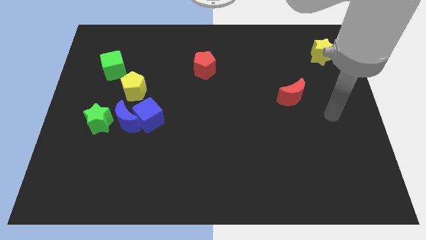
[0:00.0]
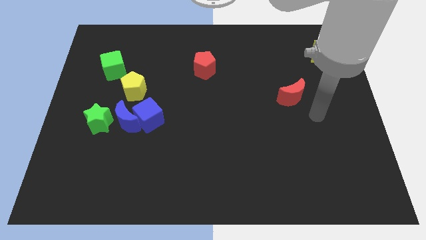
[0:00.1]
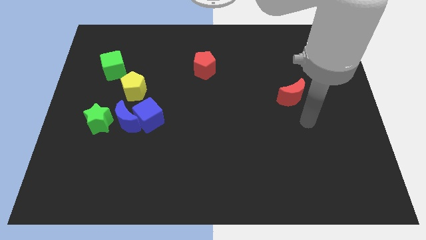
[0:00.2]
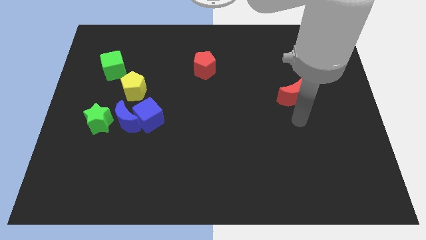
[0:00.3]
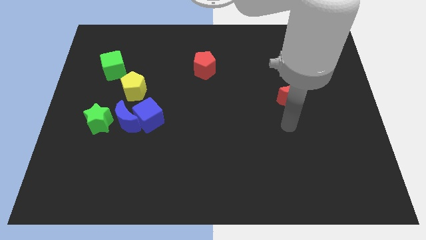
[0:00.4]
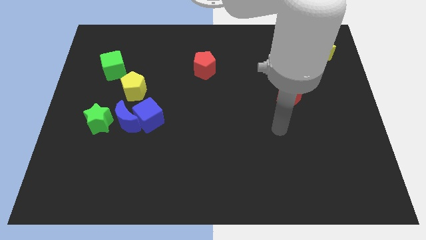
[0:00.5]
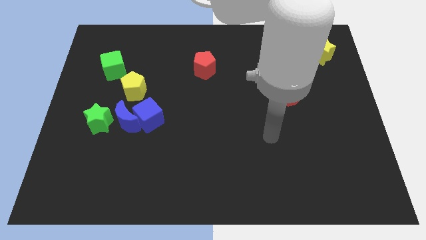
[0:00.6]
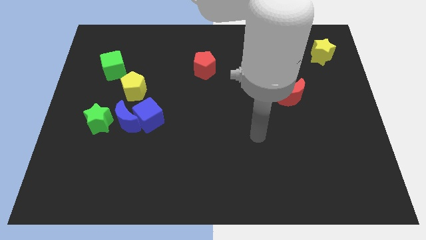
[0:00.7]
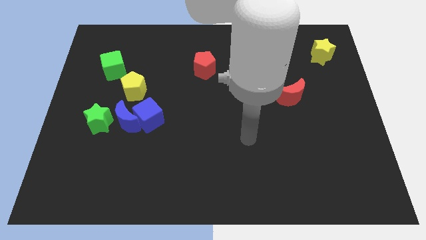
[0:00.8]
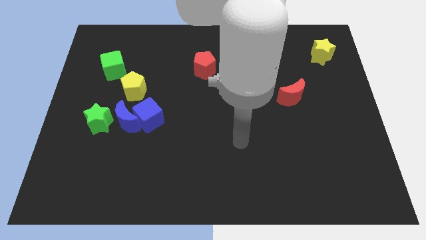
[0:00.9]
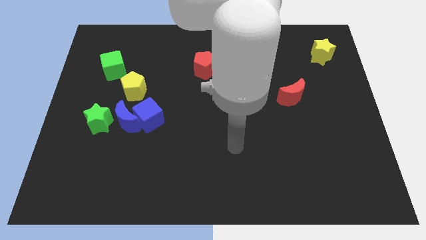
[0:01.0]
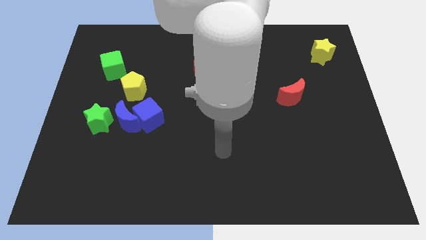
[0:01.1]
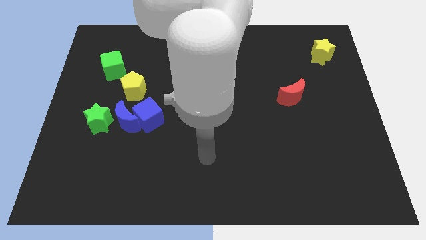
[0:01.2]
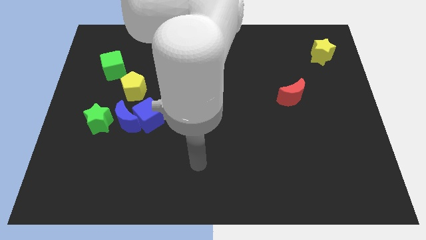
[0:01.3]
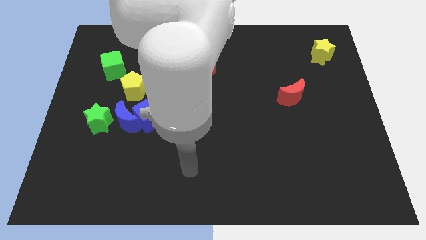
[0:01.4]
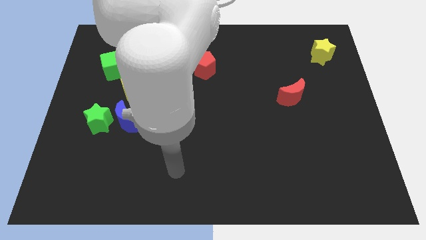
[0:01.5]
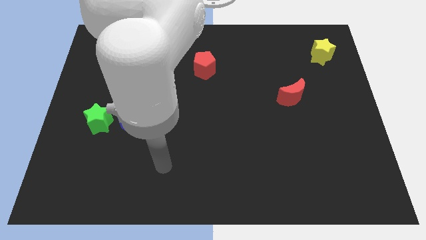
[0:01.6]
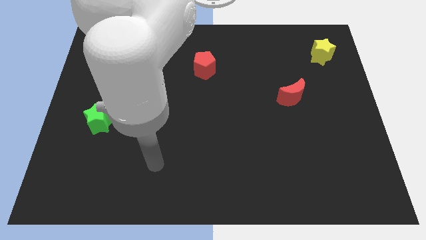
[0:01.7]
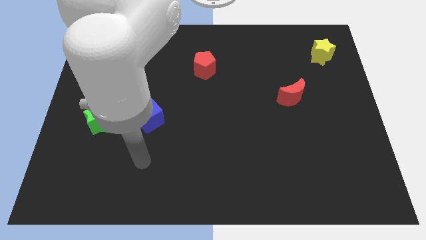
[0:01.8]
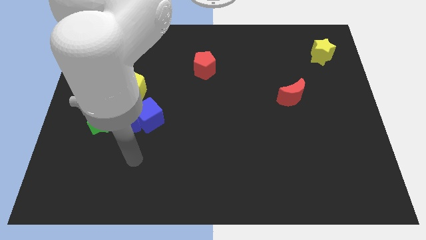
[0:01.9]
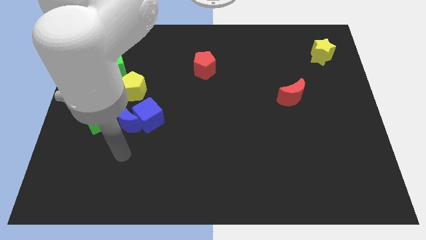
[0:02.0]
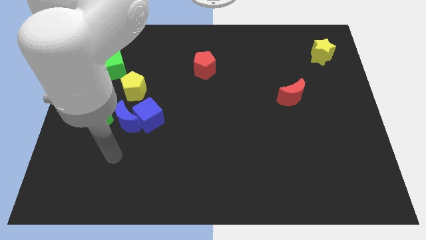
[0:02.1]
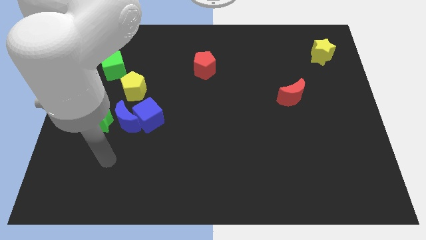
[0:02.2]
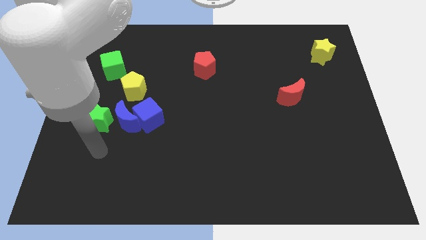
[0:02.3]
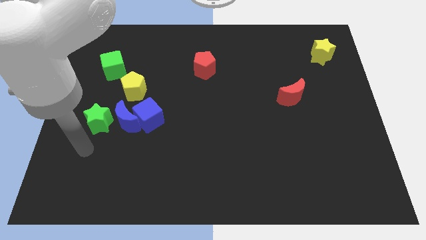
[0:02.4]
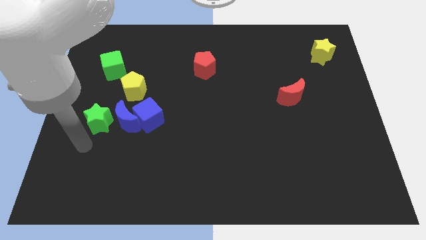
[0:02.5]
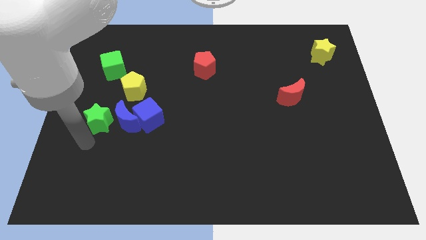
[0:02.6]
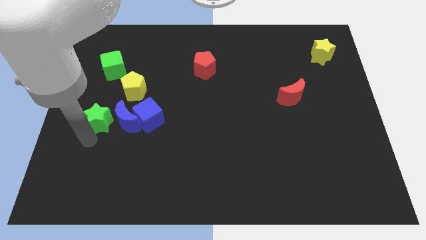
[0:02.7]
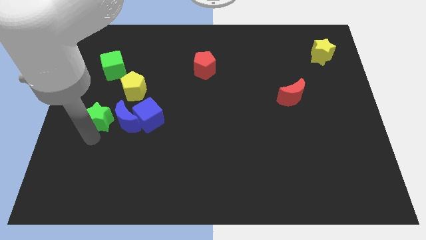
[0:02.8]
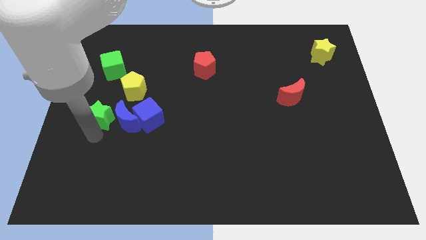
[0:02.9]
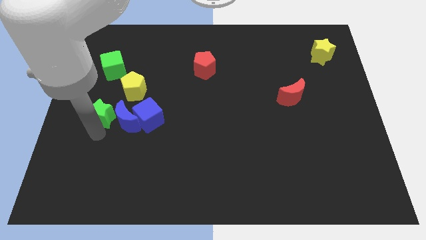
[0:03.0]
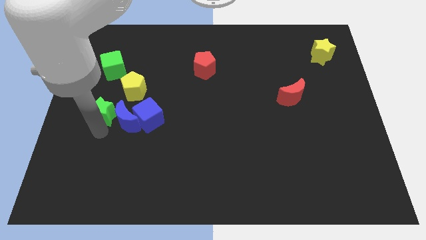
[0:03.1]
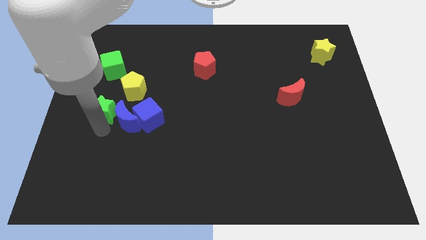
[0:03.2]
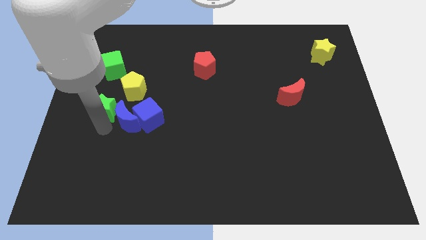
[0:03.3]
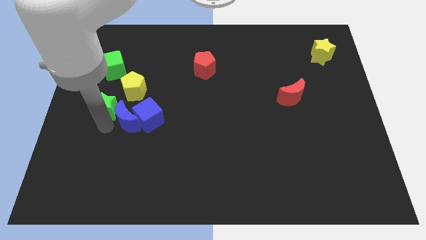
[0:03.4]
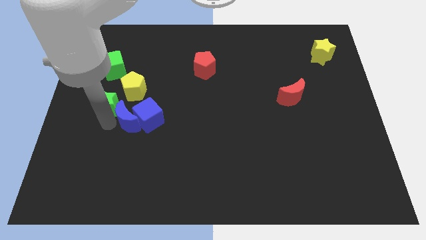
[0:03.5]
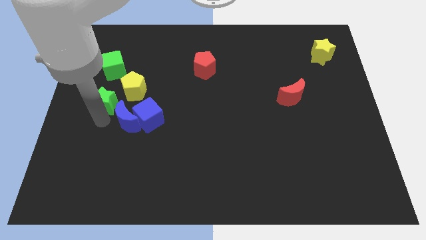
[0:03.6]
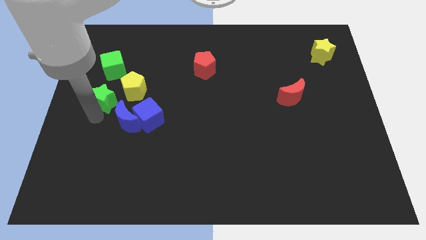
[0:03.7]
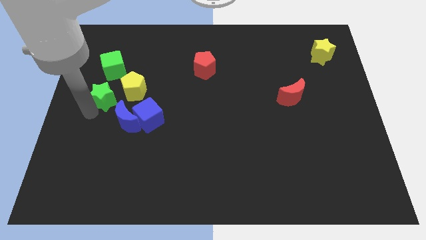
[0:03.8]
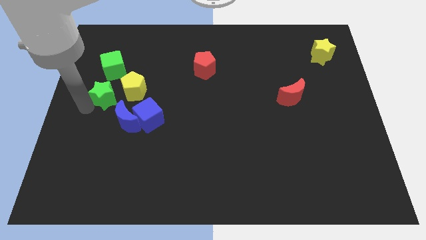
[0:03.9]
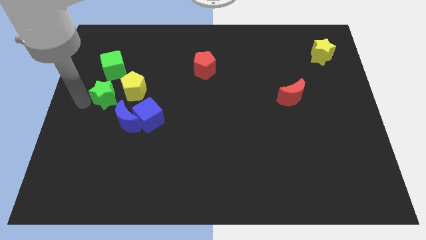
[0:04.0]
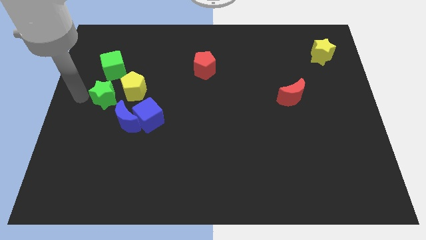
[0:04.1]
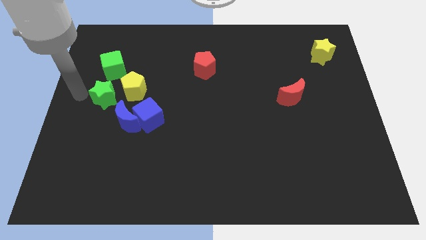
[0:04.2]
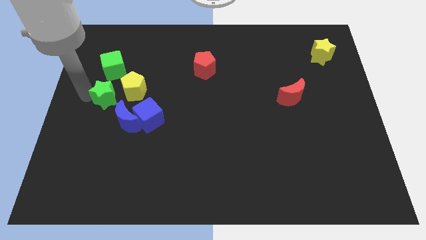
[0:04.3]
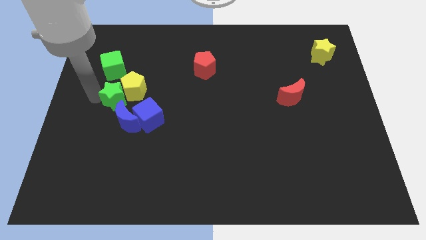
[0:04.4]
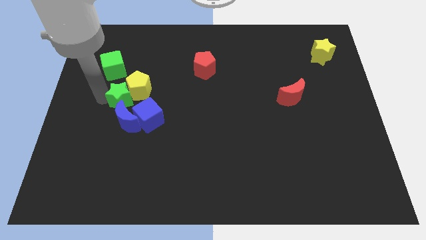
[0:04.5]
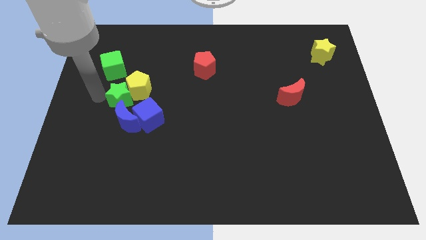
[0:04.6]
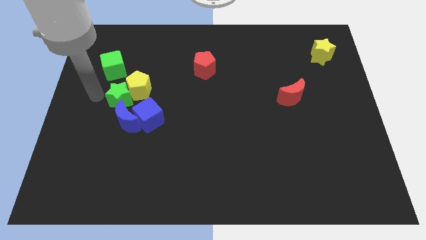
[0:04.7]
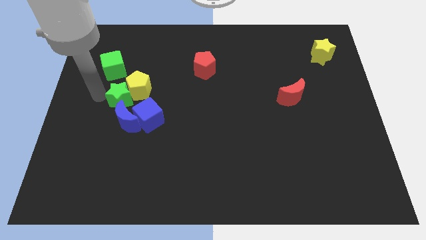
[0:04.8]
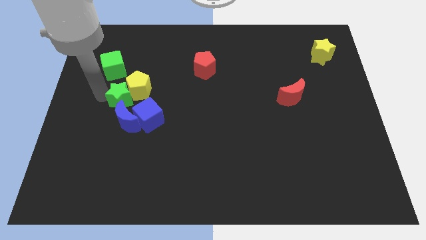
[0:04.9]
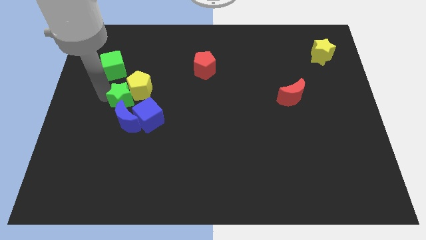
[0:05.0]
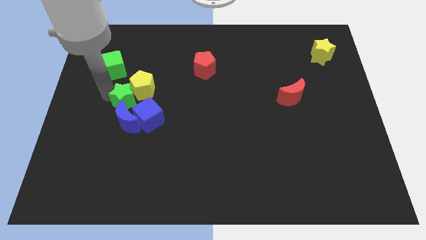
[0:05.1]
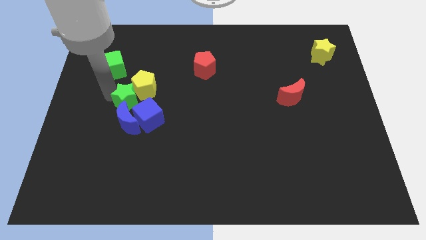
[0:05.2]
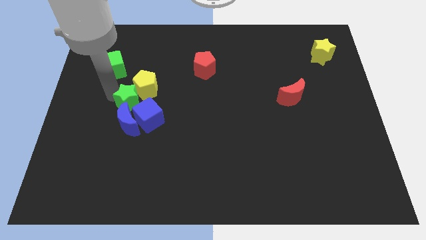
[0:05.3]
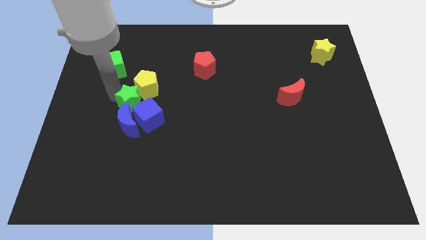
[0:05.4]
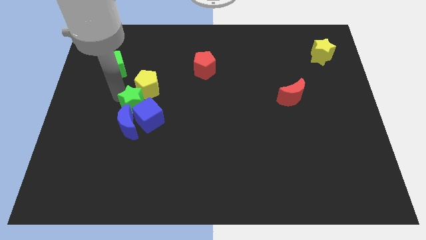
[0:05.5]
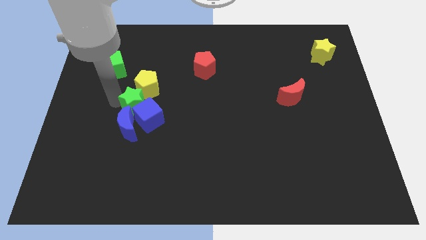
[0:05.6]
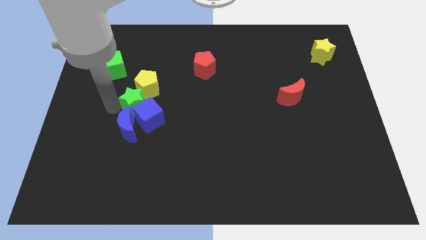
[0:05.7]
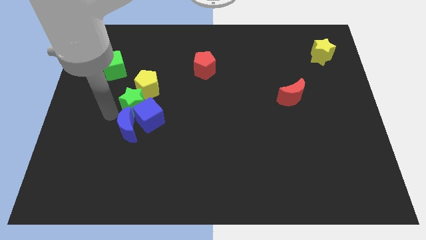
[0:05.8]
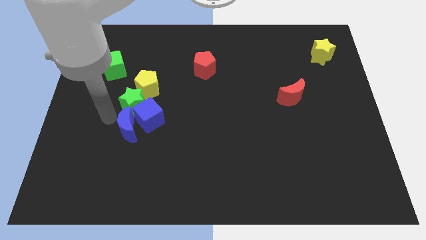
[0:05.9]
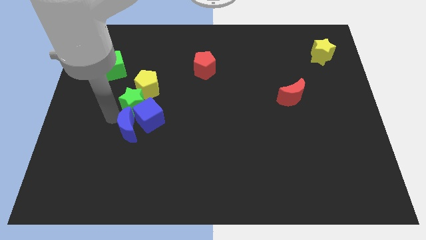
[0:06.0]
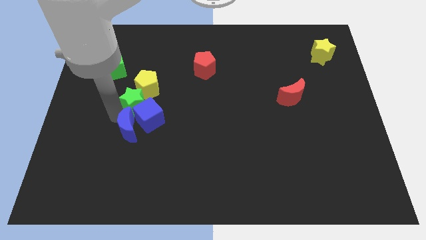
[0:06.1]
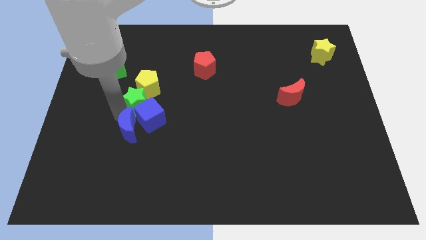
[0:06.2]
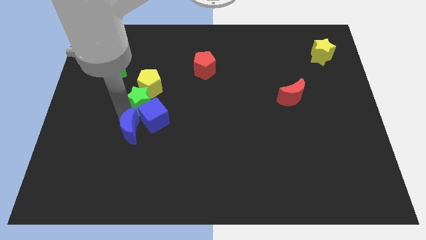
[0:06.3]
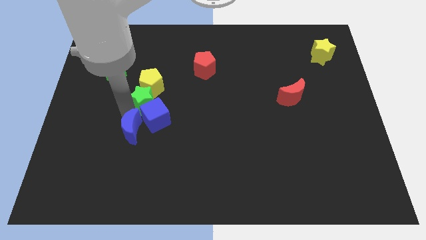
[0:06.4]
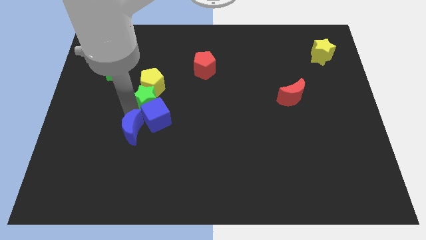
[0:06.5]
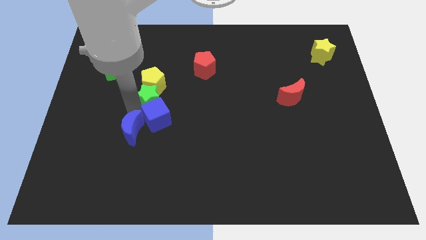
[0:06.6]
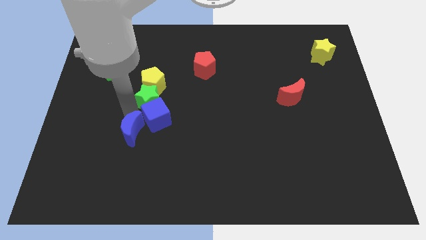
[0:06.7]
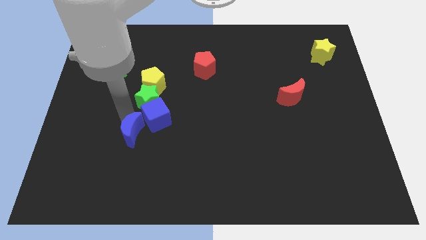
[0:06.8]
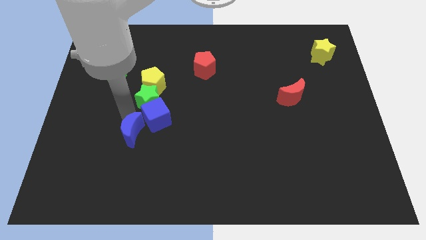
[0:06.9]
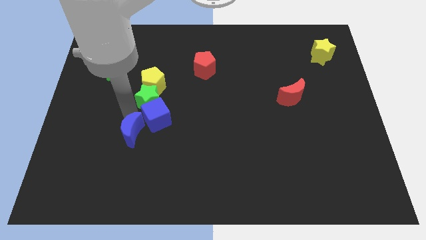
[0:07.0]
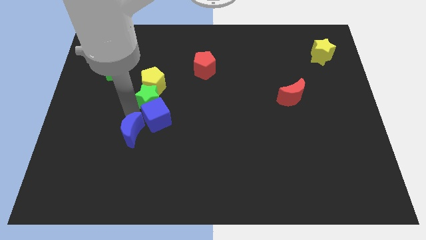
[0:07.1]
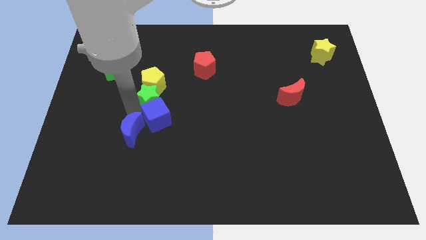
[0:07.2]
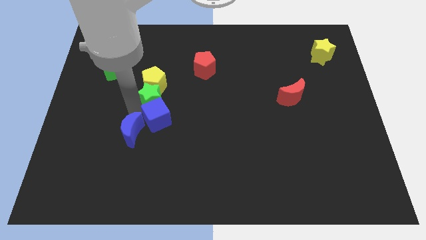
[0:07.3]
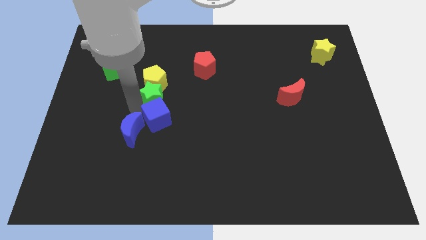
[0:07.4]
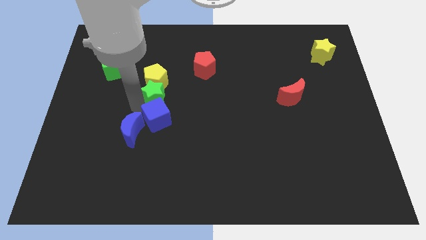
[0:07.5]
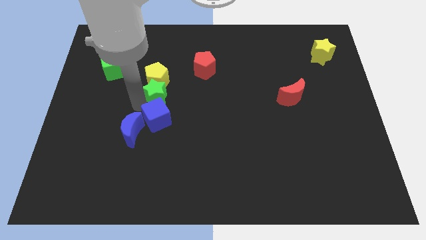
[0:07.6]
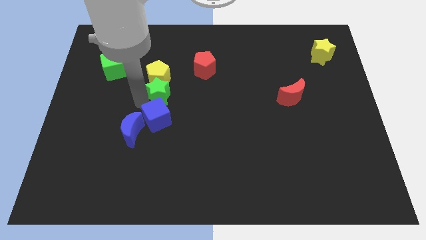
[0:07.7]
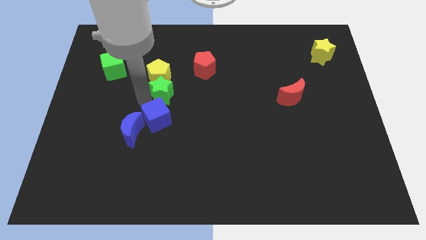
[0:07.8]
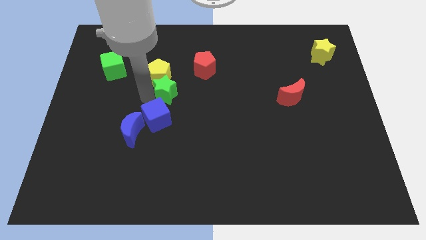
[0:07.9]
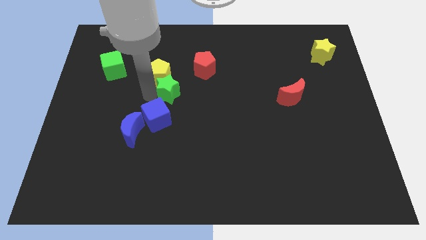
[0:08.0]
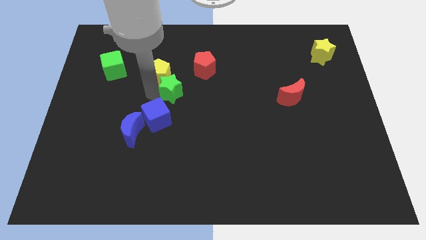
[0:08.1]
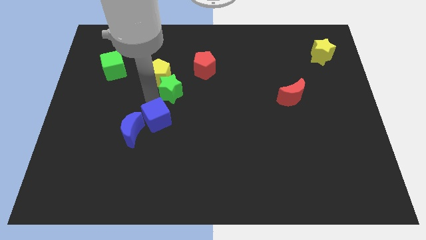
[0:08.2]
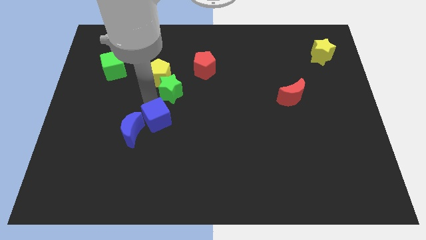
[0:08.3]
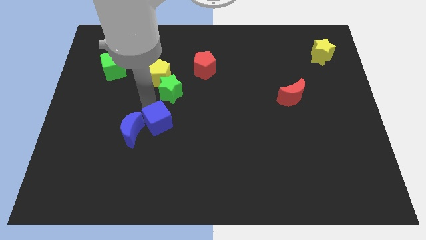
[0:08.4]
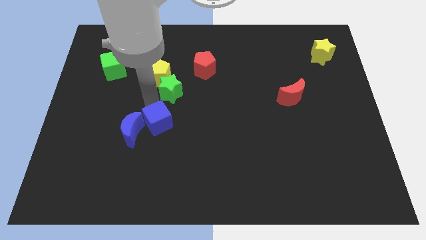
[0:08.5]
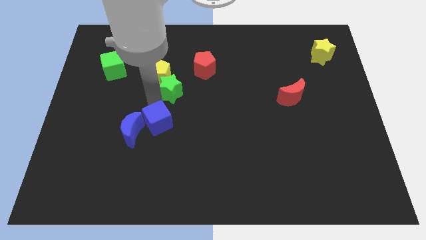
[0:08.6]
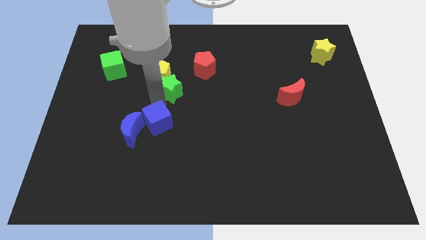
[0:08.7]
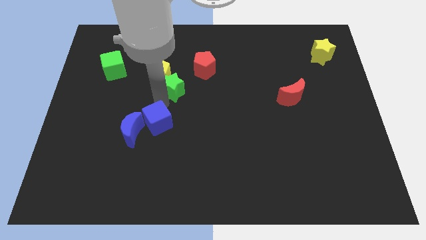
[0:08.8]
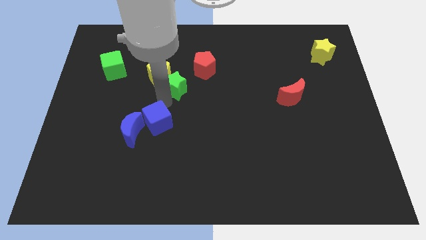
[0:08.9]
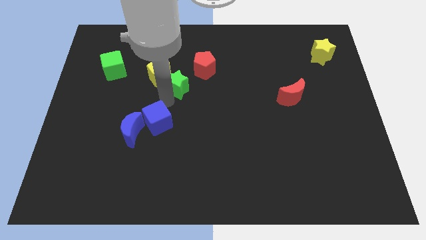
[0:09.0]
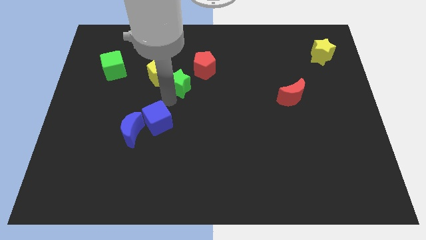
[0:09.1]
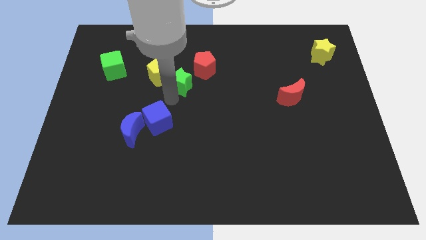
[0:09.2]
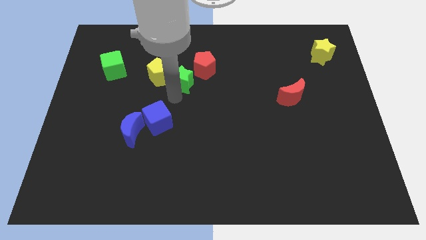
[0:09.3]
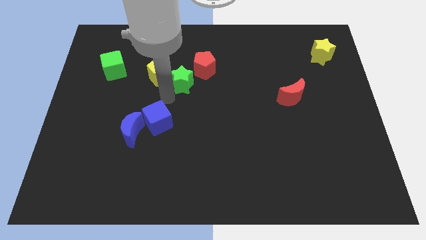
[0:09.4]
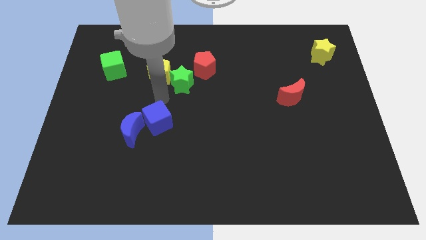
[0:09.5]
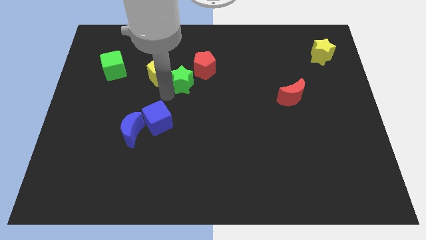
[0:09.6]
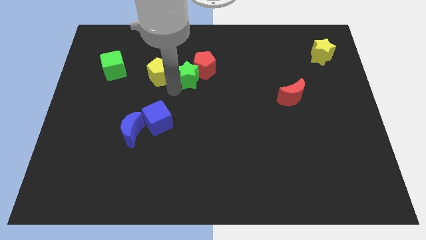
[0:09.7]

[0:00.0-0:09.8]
push the green star close to the red pentagon
